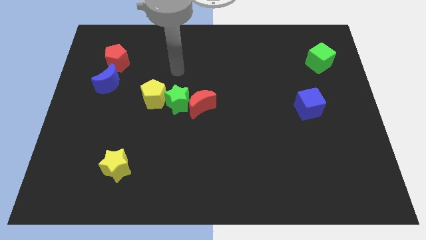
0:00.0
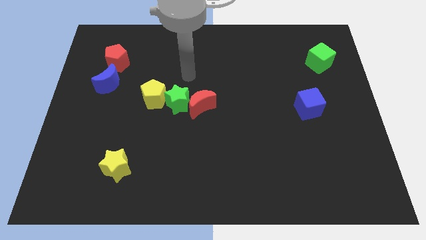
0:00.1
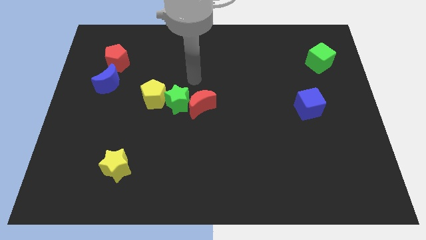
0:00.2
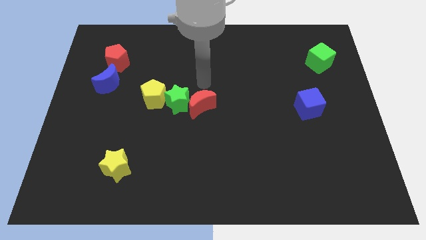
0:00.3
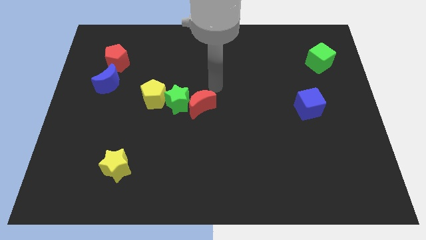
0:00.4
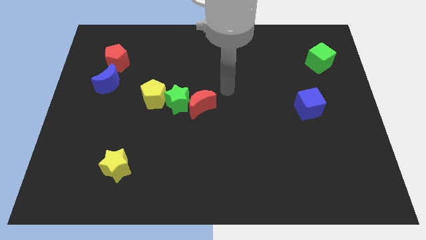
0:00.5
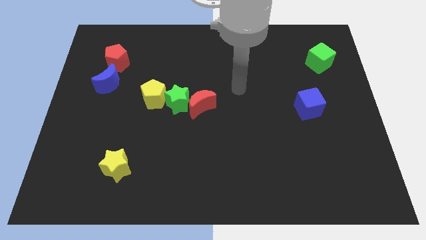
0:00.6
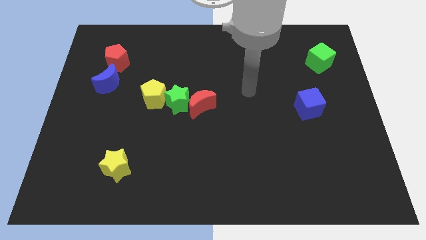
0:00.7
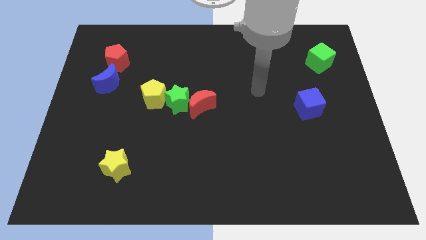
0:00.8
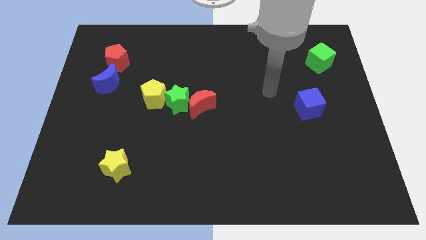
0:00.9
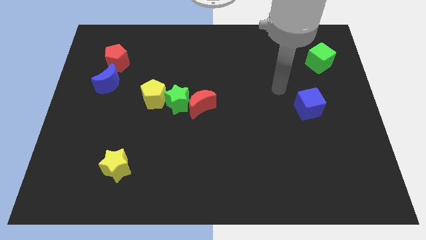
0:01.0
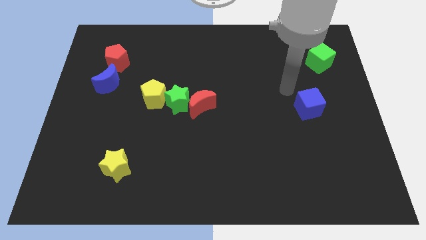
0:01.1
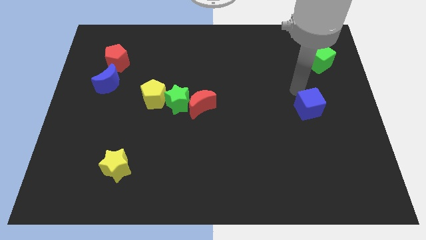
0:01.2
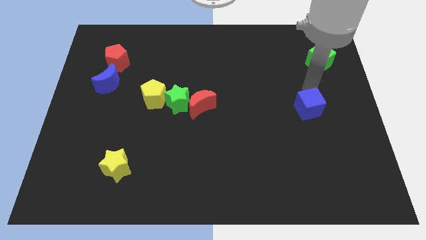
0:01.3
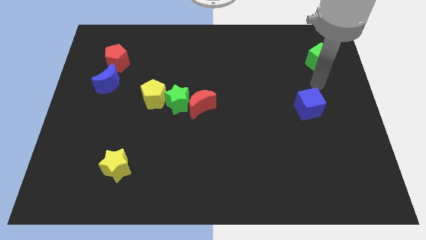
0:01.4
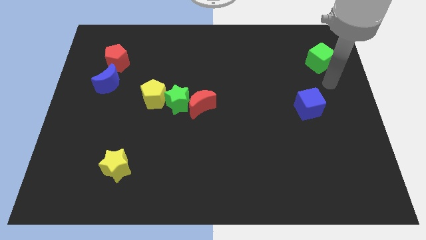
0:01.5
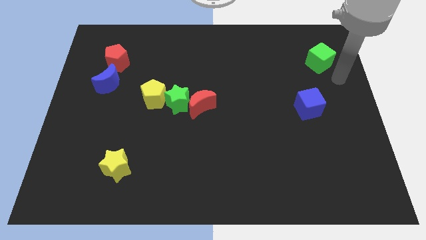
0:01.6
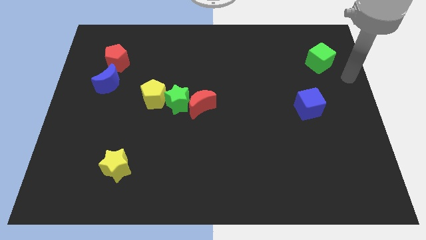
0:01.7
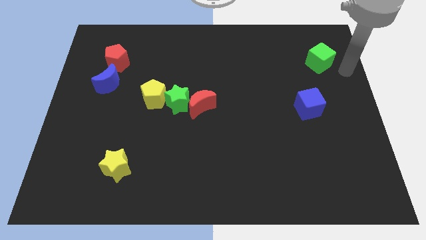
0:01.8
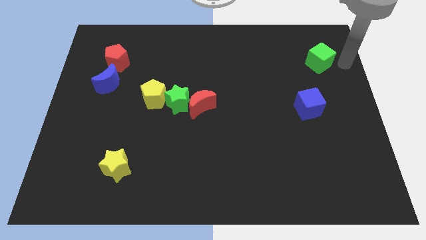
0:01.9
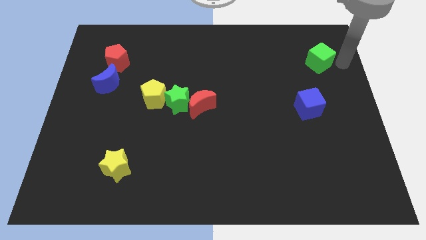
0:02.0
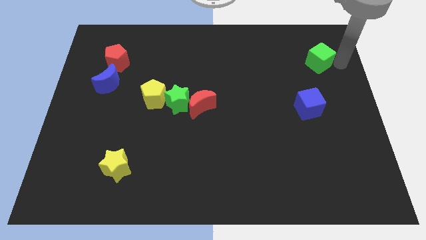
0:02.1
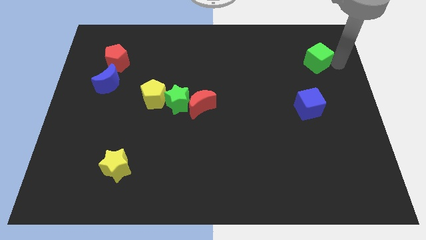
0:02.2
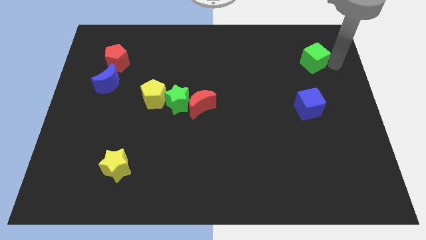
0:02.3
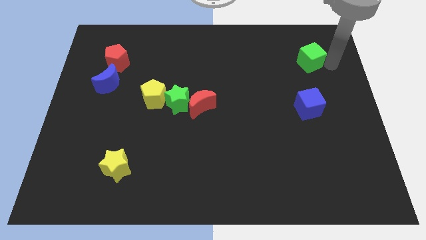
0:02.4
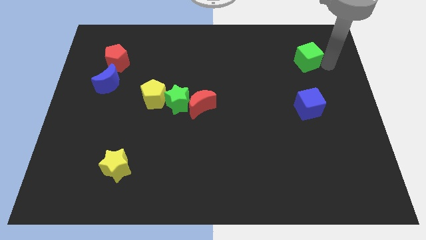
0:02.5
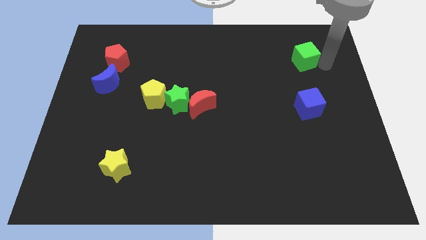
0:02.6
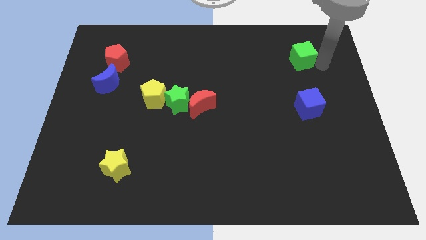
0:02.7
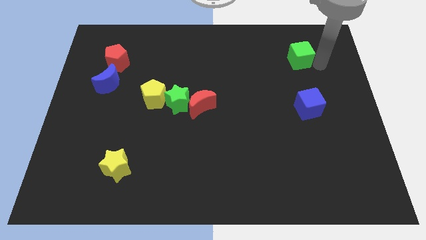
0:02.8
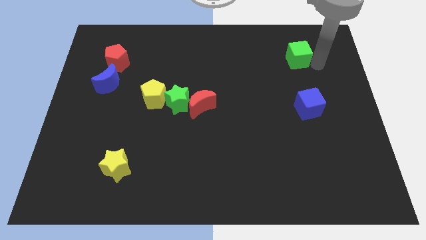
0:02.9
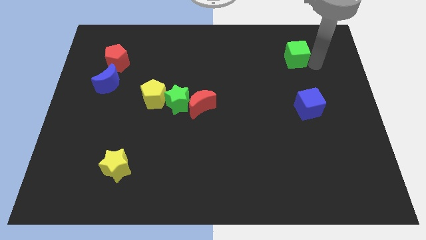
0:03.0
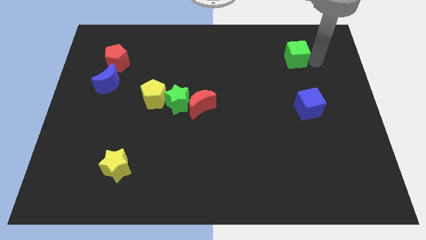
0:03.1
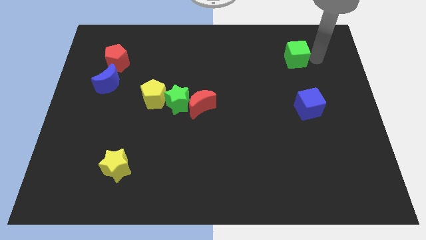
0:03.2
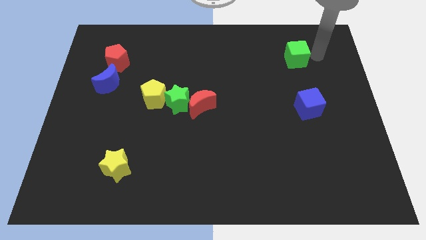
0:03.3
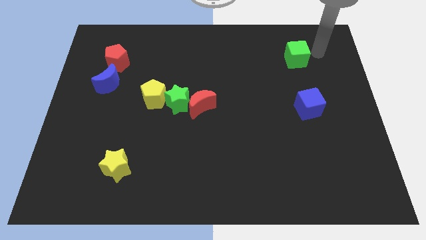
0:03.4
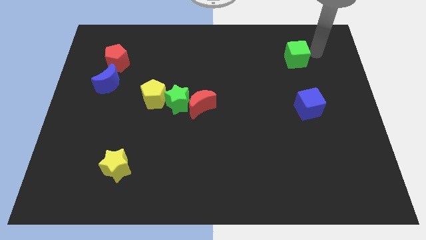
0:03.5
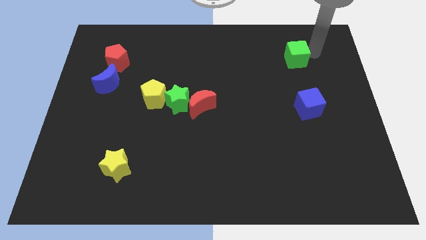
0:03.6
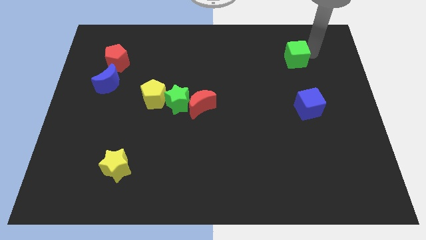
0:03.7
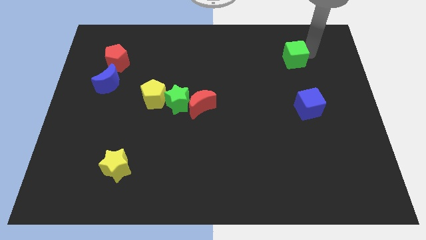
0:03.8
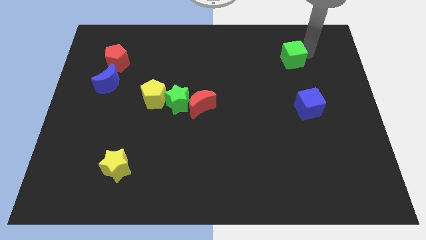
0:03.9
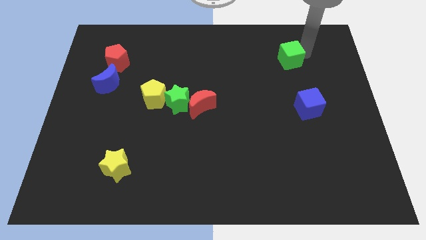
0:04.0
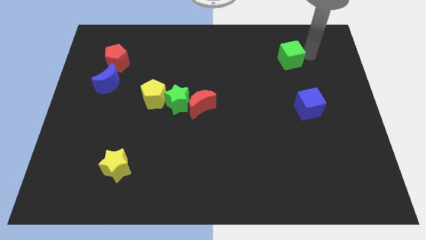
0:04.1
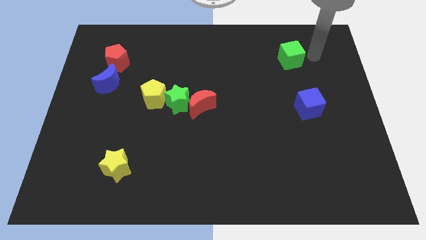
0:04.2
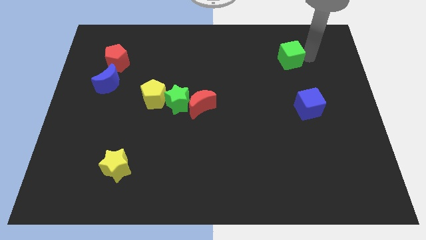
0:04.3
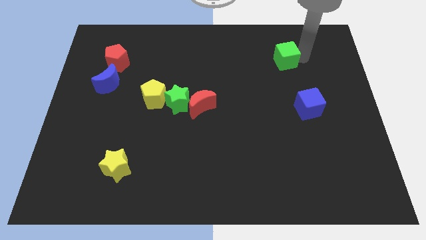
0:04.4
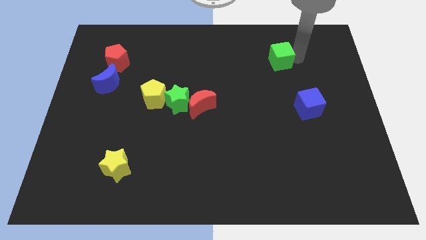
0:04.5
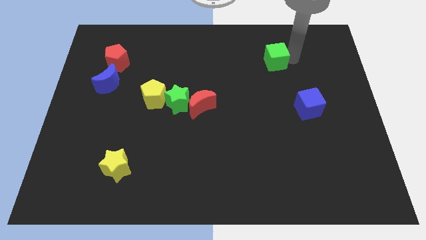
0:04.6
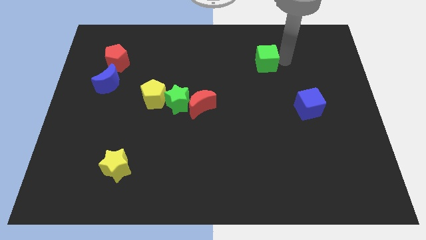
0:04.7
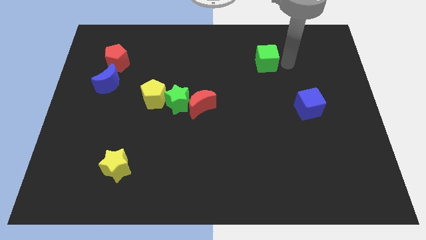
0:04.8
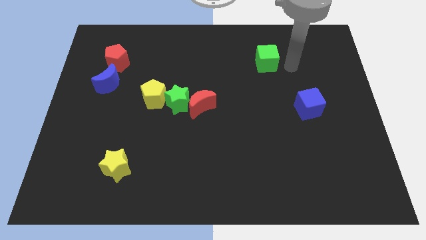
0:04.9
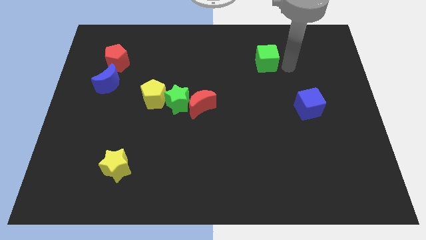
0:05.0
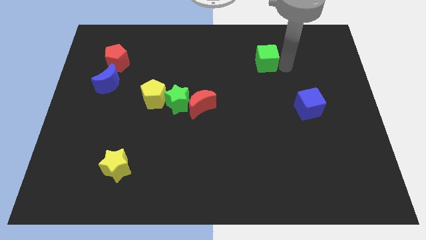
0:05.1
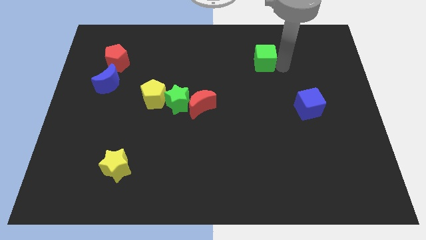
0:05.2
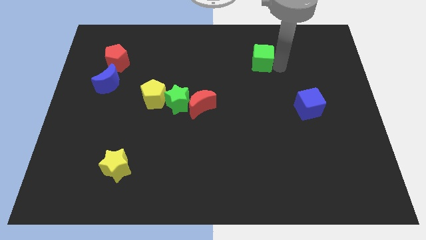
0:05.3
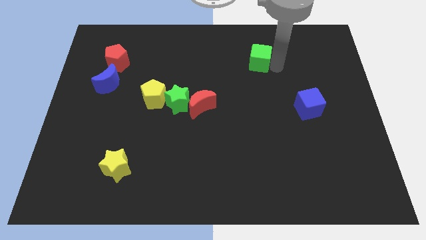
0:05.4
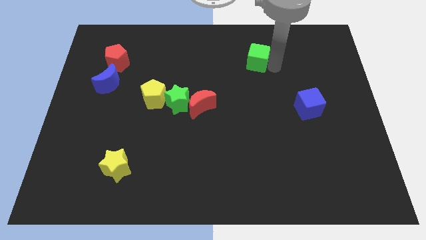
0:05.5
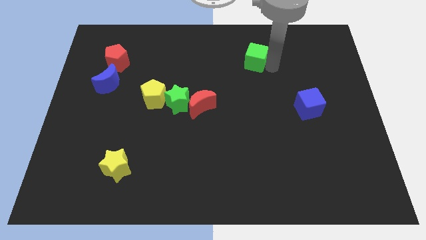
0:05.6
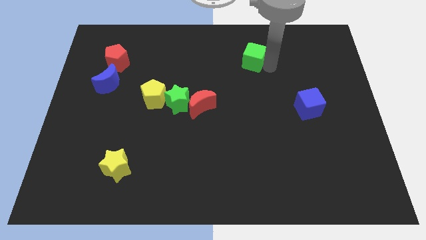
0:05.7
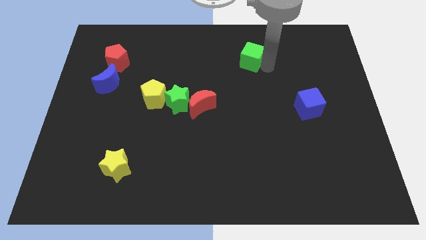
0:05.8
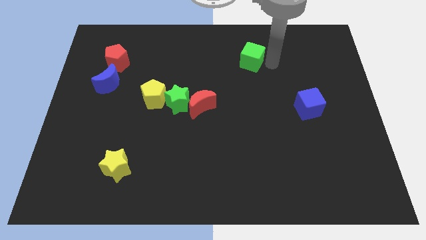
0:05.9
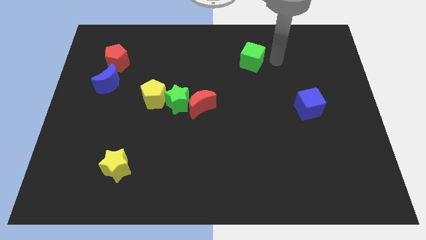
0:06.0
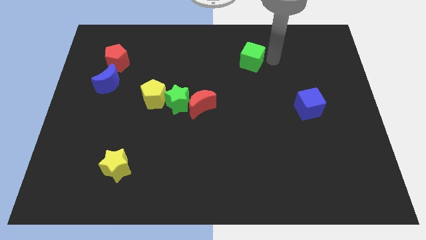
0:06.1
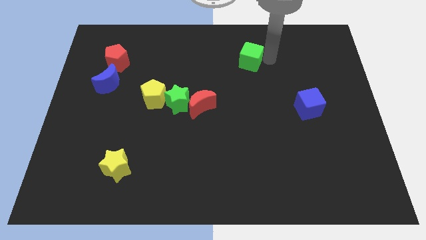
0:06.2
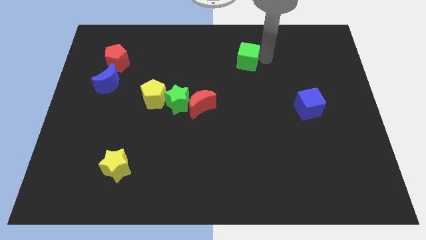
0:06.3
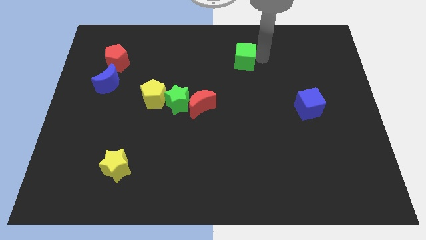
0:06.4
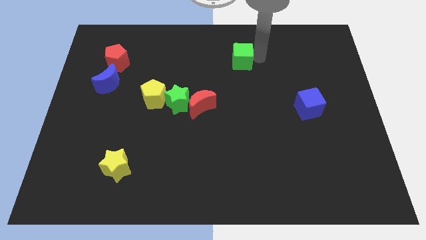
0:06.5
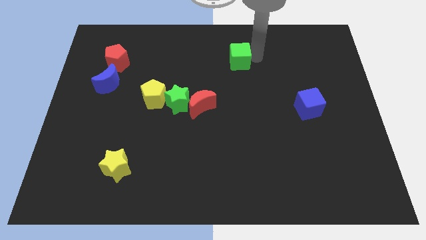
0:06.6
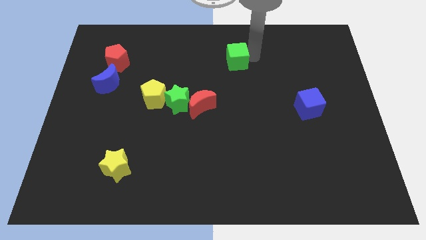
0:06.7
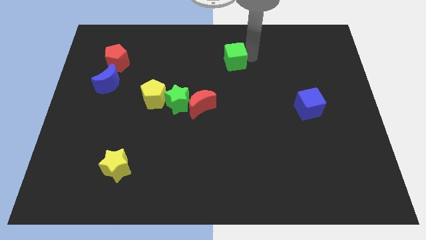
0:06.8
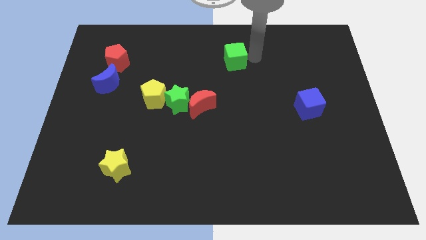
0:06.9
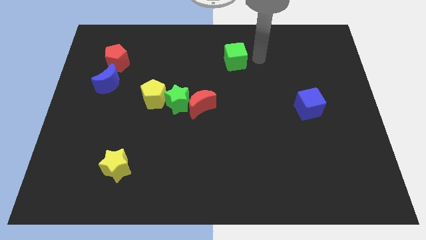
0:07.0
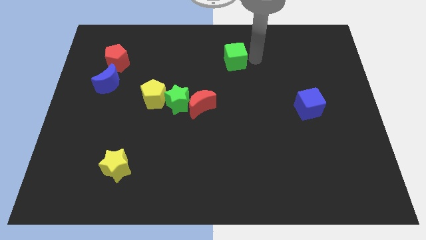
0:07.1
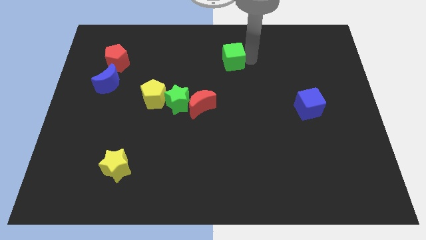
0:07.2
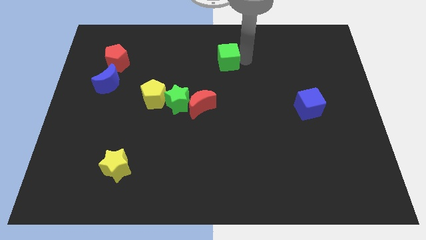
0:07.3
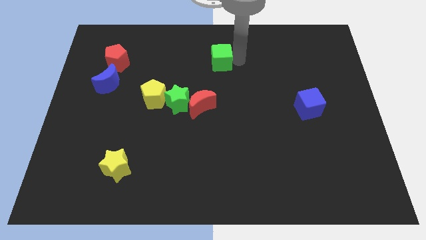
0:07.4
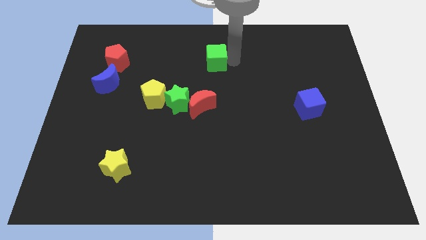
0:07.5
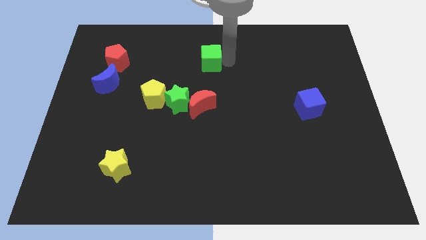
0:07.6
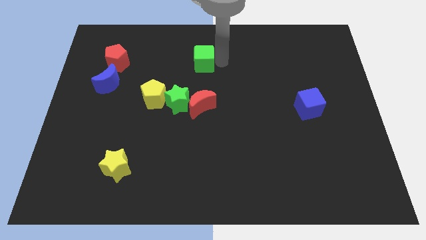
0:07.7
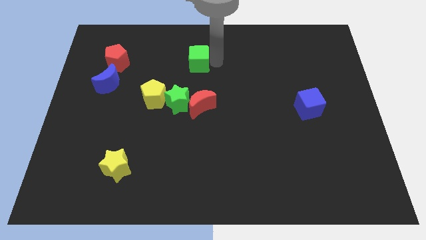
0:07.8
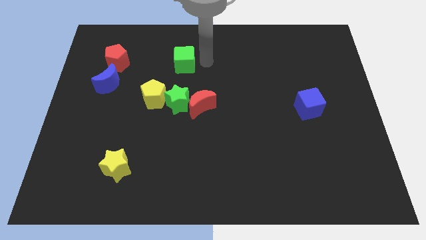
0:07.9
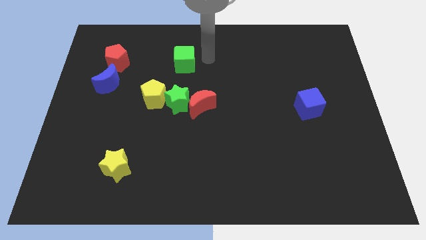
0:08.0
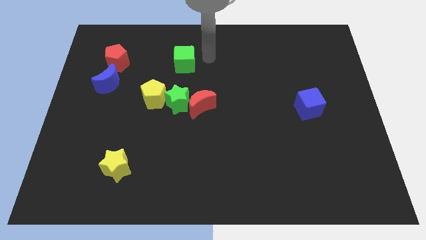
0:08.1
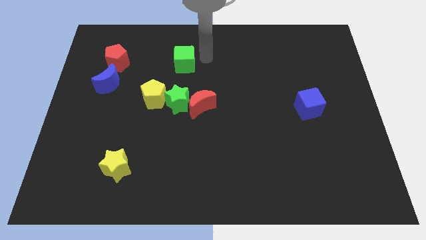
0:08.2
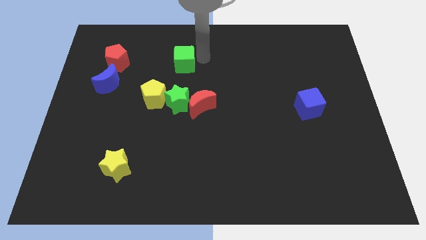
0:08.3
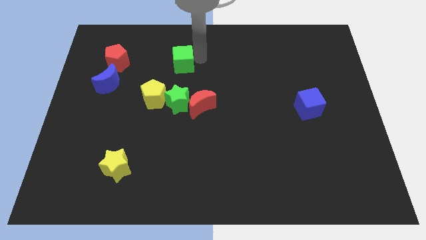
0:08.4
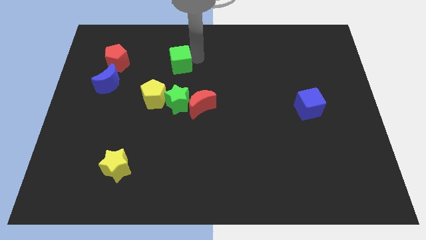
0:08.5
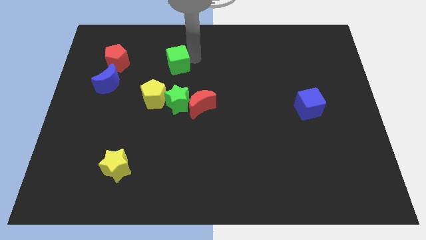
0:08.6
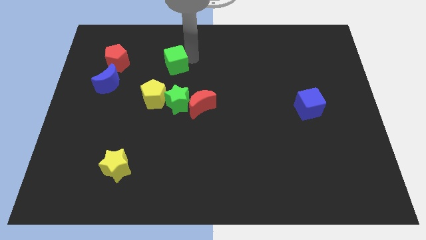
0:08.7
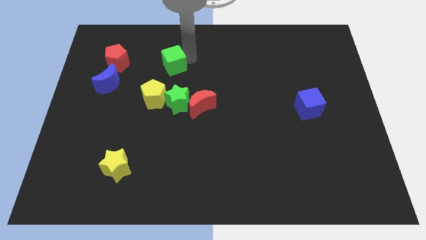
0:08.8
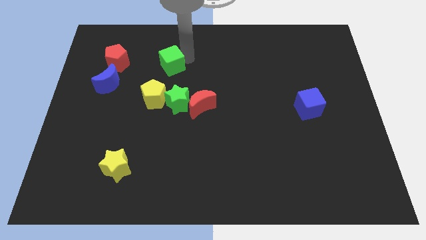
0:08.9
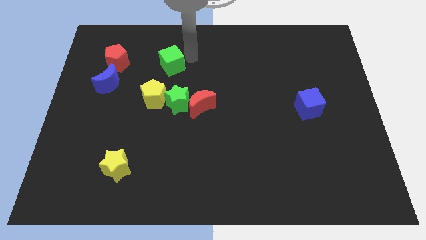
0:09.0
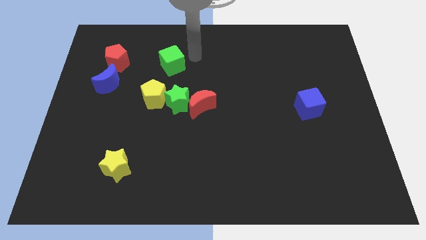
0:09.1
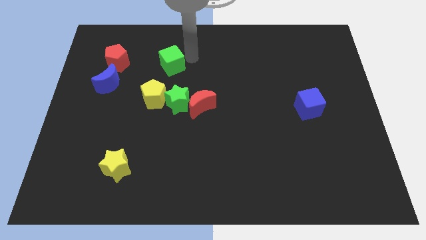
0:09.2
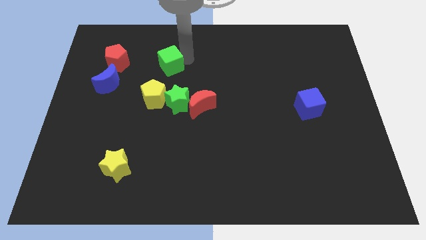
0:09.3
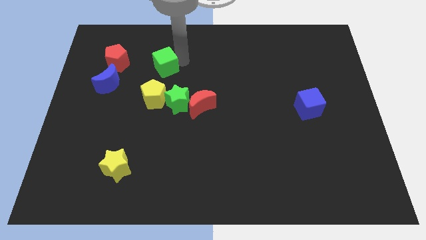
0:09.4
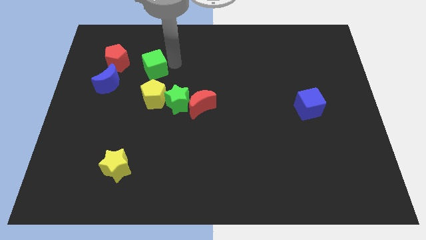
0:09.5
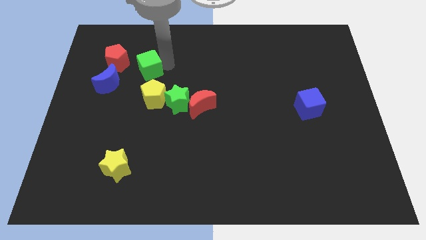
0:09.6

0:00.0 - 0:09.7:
put the green cube to the bottom right side of the red pentagon
